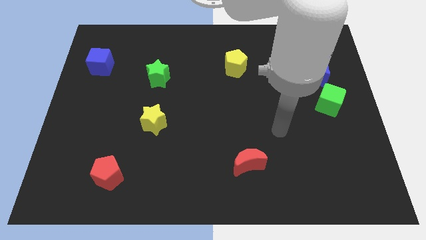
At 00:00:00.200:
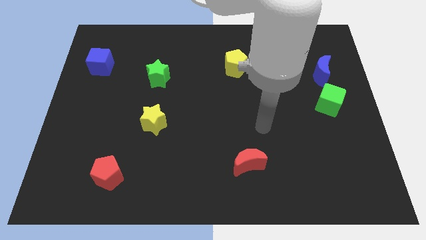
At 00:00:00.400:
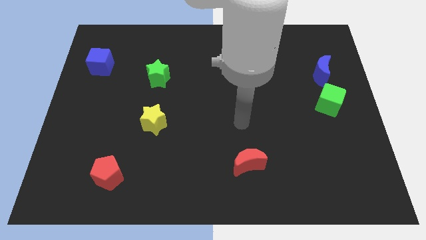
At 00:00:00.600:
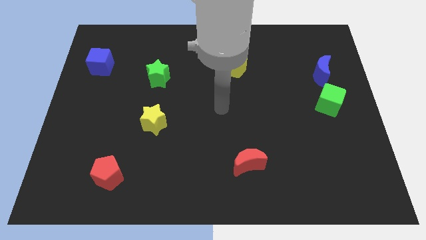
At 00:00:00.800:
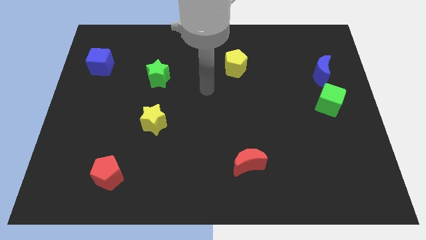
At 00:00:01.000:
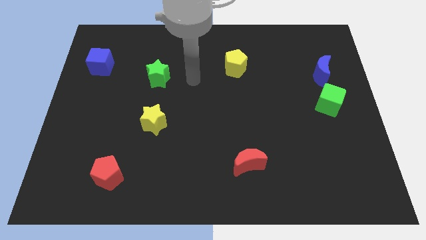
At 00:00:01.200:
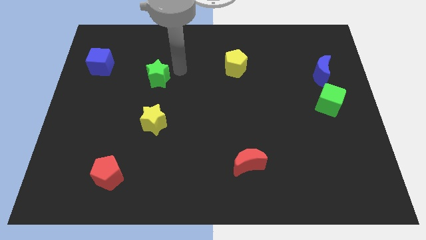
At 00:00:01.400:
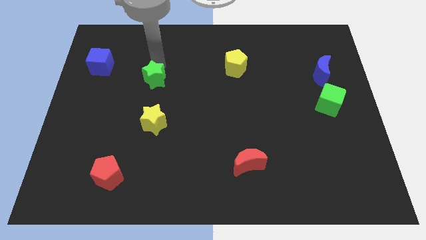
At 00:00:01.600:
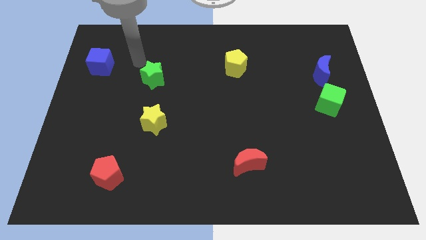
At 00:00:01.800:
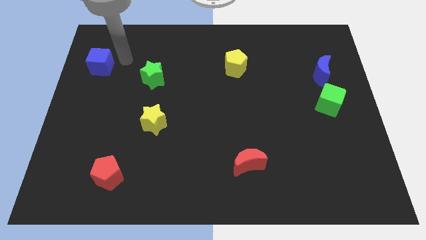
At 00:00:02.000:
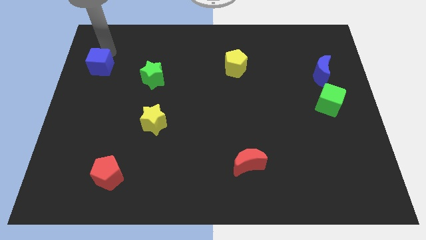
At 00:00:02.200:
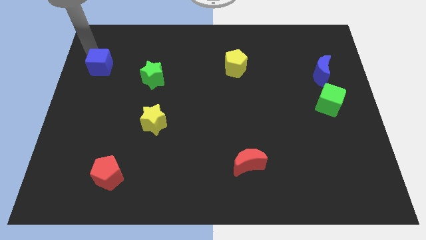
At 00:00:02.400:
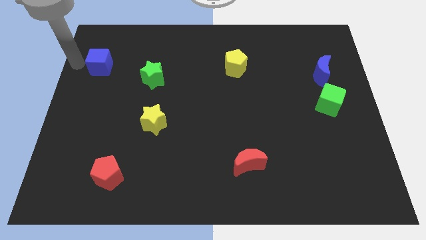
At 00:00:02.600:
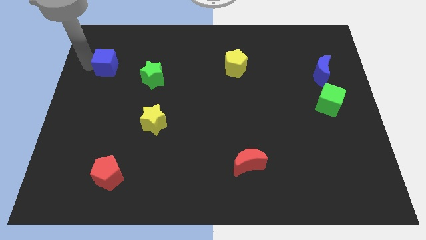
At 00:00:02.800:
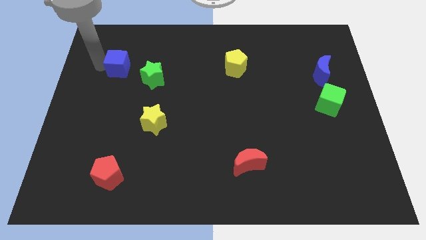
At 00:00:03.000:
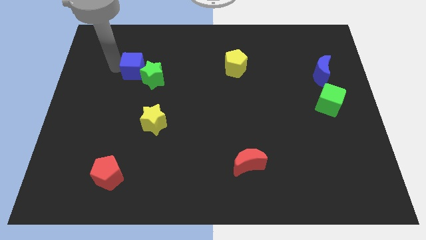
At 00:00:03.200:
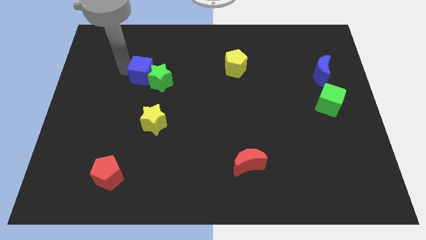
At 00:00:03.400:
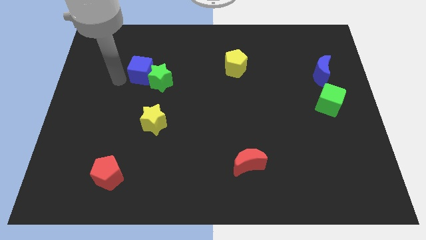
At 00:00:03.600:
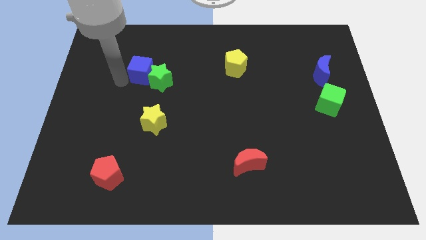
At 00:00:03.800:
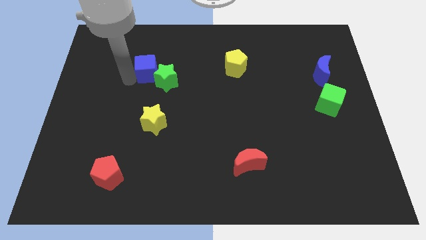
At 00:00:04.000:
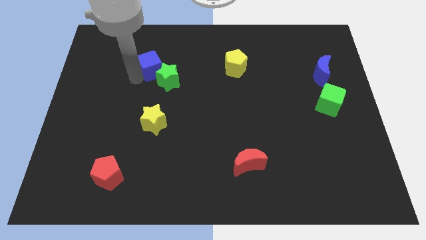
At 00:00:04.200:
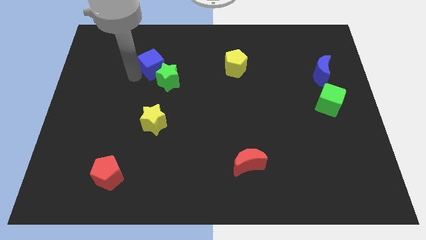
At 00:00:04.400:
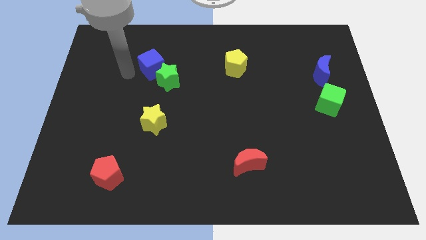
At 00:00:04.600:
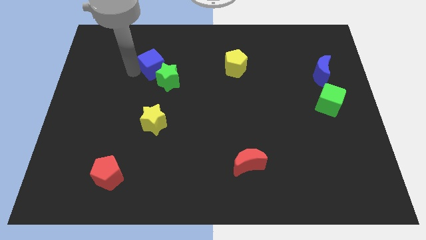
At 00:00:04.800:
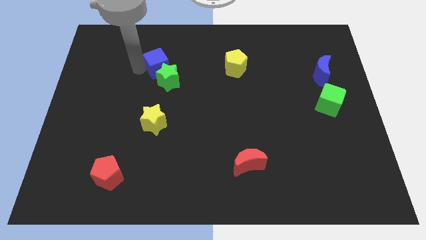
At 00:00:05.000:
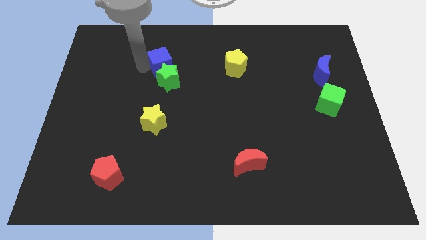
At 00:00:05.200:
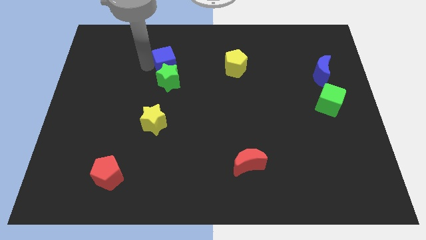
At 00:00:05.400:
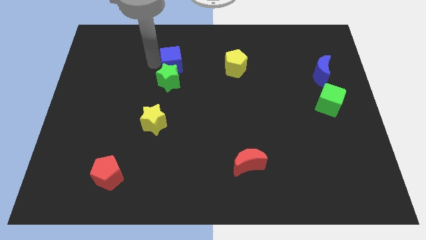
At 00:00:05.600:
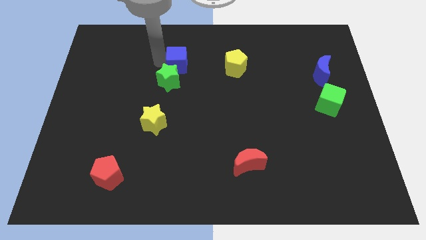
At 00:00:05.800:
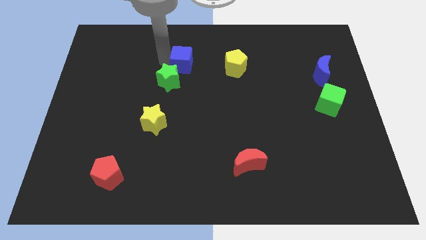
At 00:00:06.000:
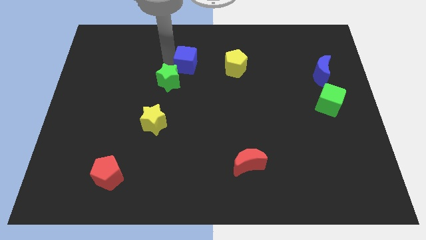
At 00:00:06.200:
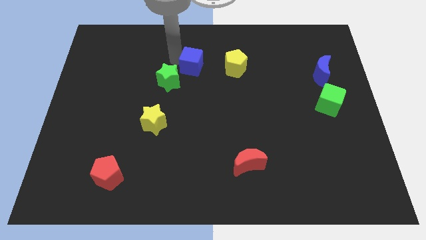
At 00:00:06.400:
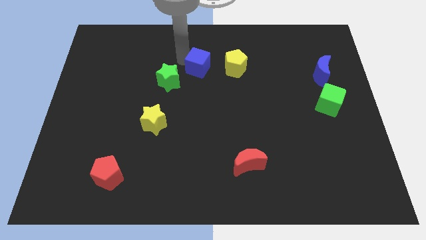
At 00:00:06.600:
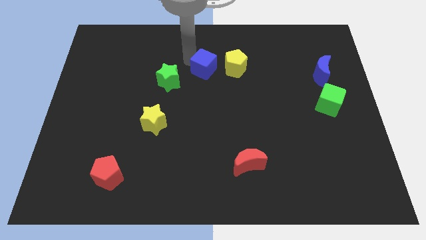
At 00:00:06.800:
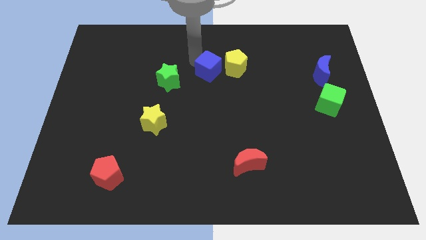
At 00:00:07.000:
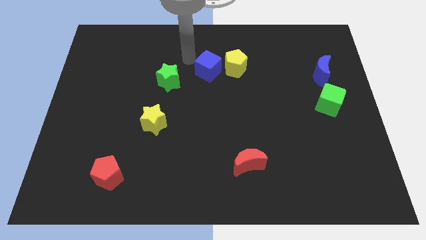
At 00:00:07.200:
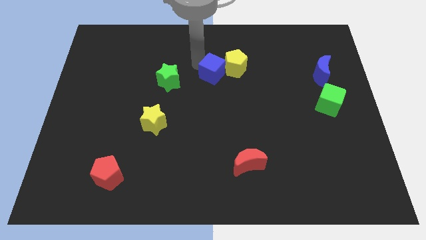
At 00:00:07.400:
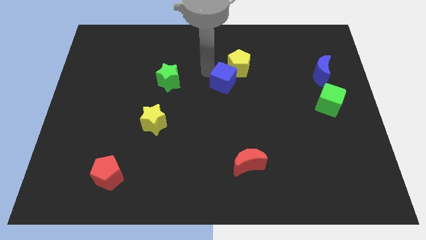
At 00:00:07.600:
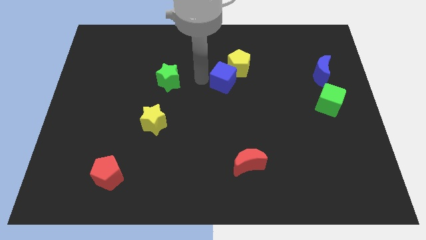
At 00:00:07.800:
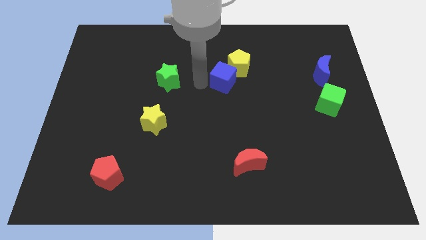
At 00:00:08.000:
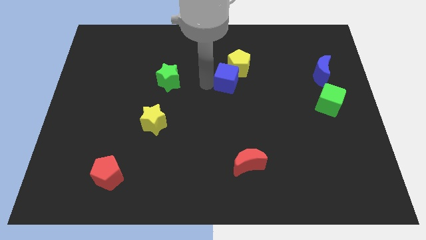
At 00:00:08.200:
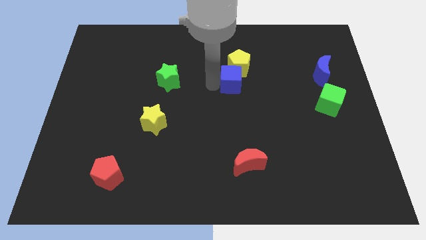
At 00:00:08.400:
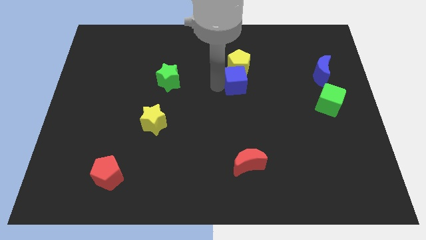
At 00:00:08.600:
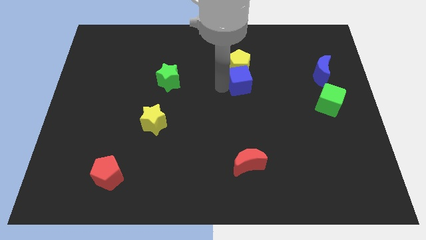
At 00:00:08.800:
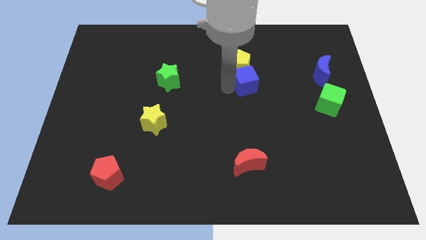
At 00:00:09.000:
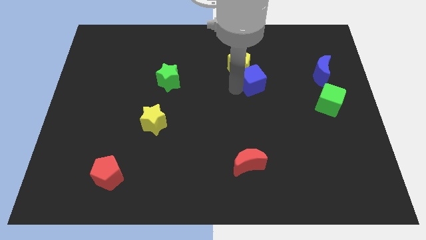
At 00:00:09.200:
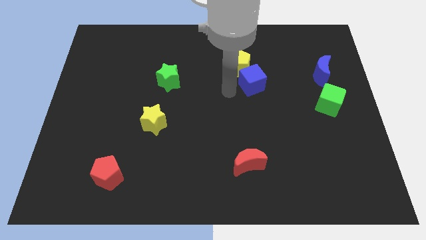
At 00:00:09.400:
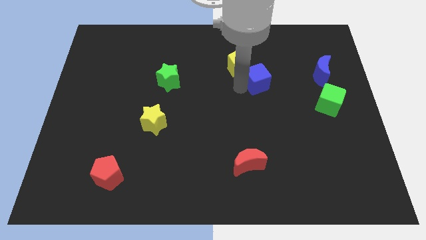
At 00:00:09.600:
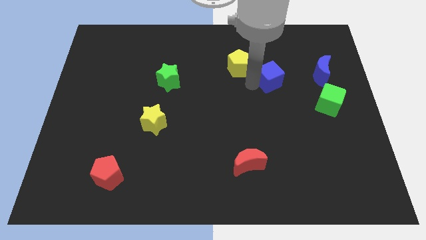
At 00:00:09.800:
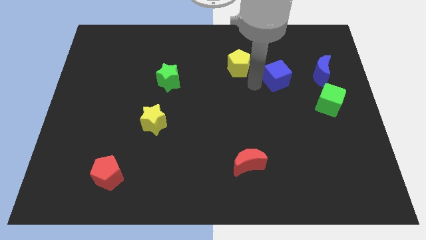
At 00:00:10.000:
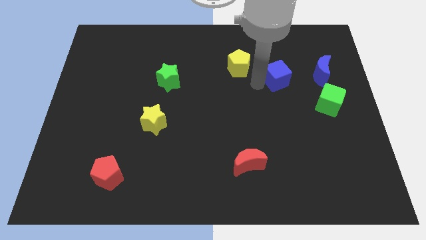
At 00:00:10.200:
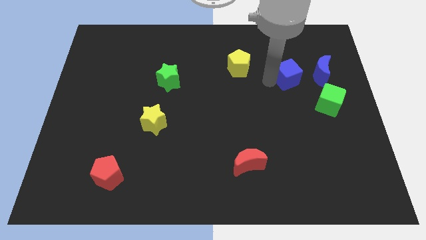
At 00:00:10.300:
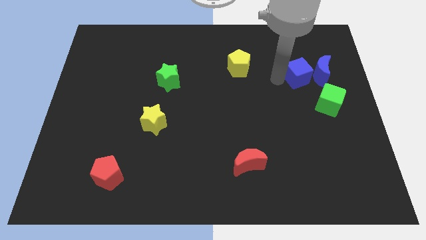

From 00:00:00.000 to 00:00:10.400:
slide the blue cube to the blue moon

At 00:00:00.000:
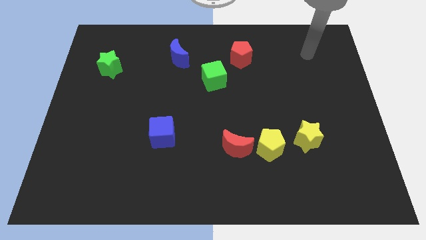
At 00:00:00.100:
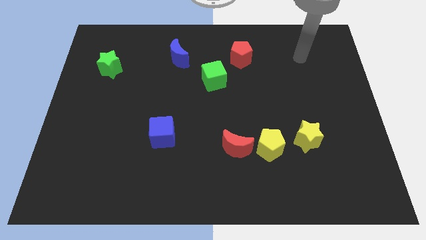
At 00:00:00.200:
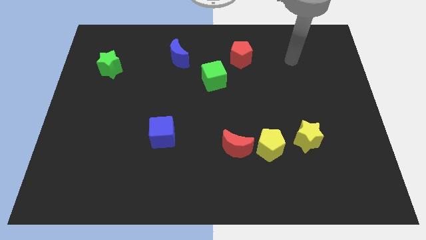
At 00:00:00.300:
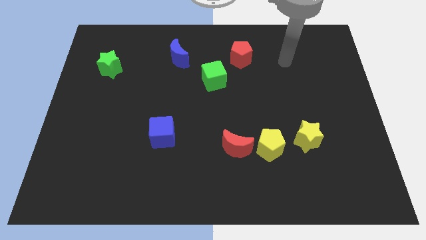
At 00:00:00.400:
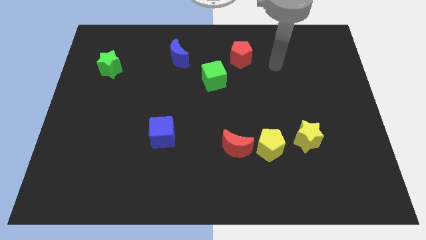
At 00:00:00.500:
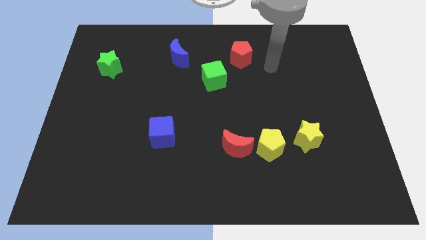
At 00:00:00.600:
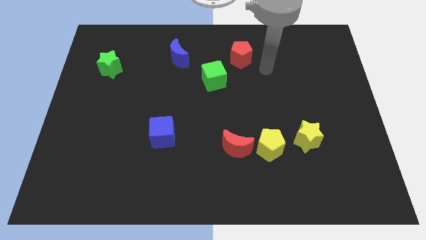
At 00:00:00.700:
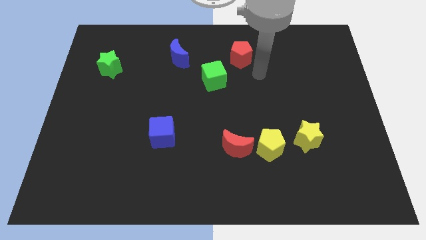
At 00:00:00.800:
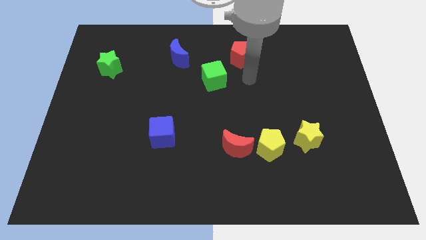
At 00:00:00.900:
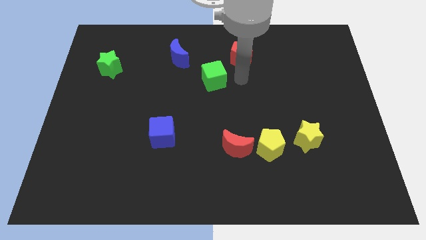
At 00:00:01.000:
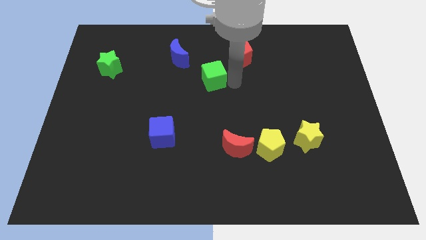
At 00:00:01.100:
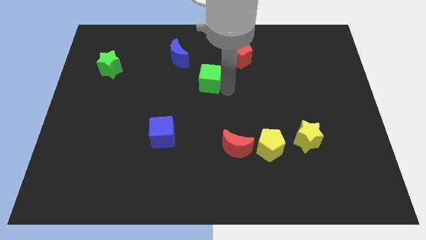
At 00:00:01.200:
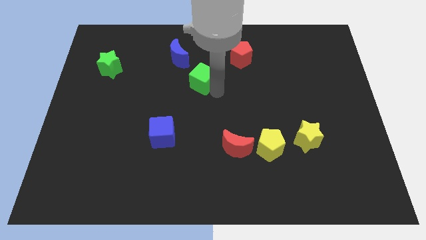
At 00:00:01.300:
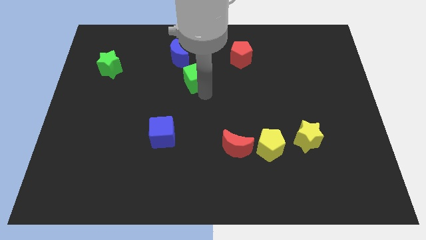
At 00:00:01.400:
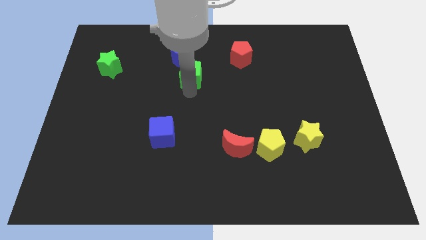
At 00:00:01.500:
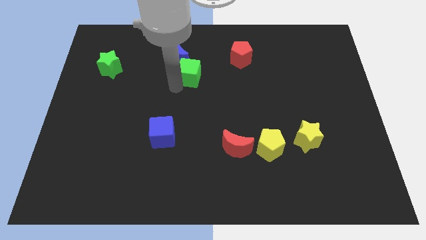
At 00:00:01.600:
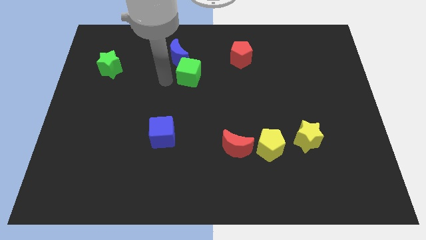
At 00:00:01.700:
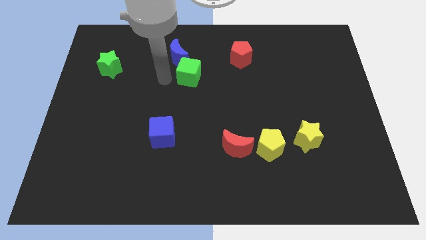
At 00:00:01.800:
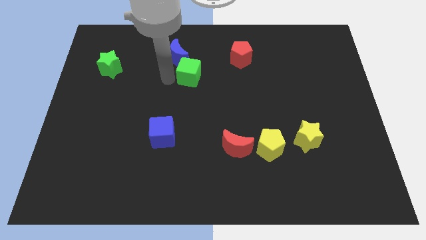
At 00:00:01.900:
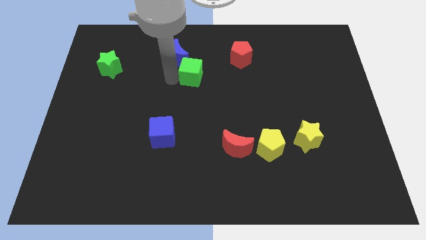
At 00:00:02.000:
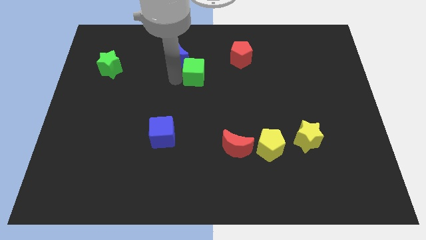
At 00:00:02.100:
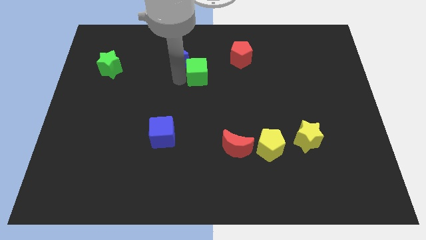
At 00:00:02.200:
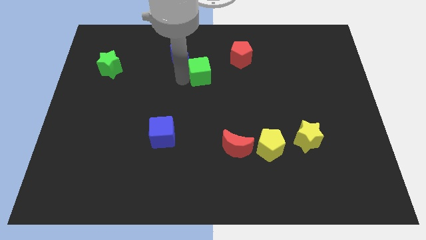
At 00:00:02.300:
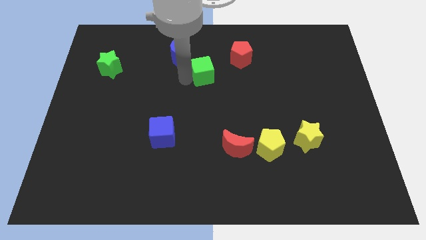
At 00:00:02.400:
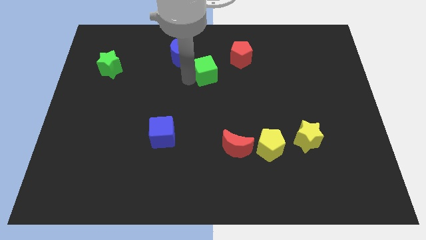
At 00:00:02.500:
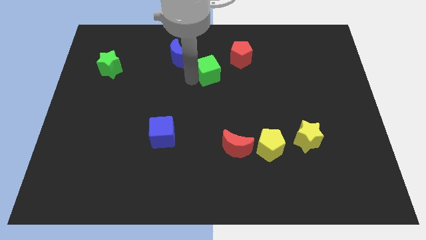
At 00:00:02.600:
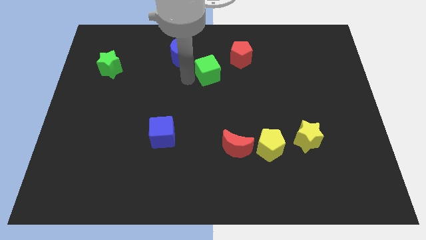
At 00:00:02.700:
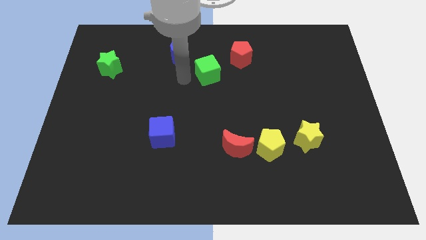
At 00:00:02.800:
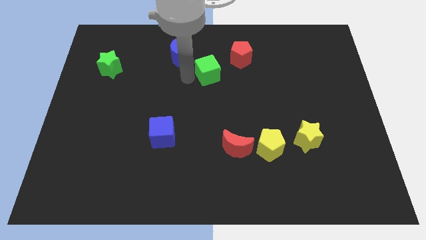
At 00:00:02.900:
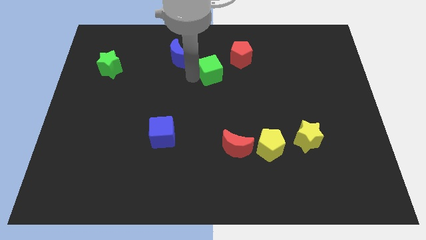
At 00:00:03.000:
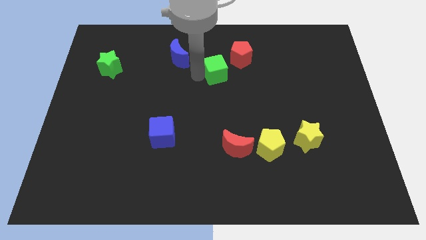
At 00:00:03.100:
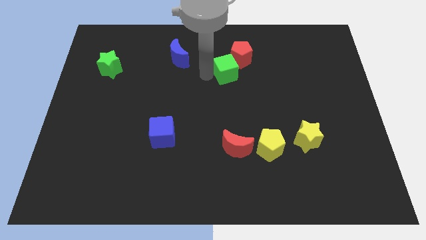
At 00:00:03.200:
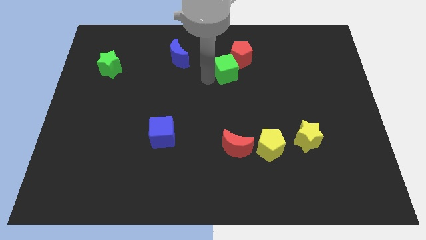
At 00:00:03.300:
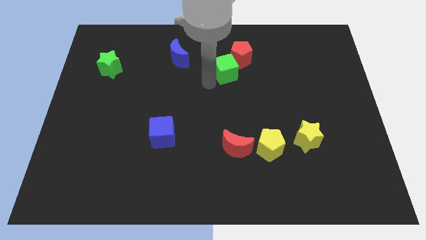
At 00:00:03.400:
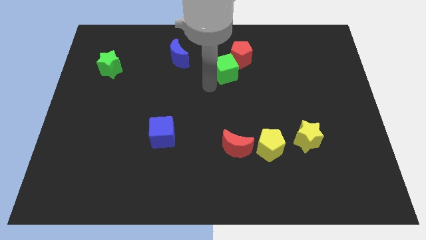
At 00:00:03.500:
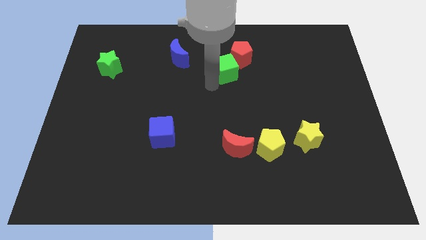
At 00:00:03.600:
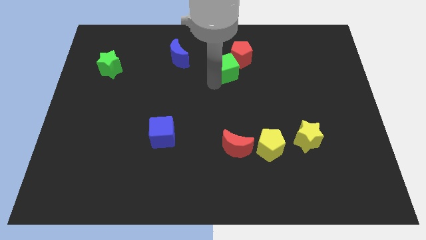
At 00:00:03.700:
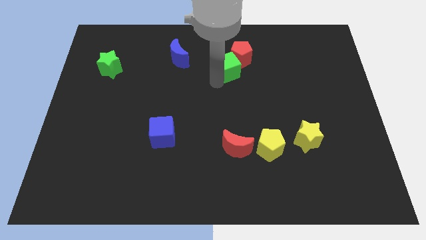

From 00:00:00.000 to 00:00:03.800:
move the green cube towards the red pentagon
